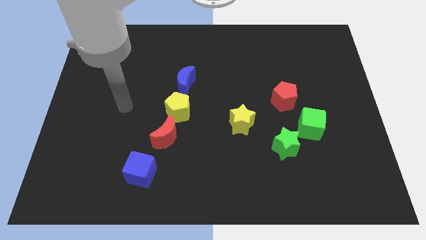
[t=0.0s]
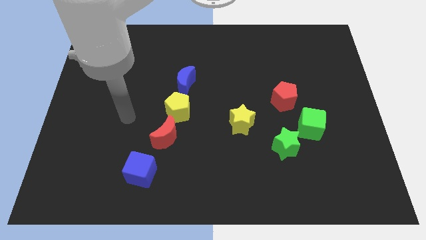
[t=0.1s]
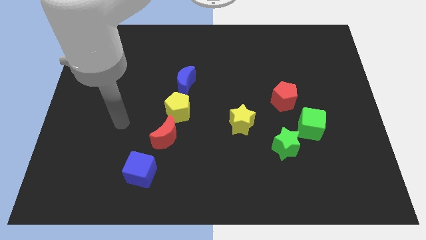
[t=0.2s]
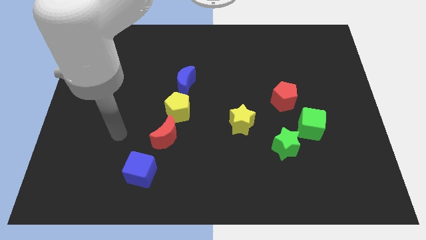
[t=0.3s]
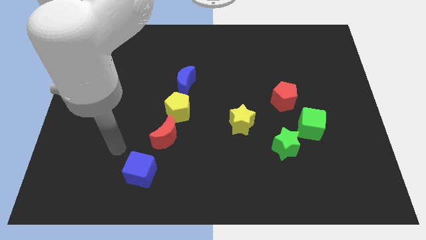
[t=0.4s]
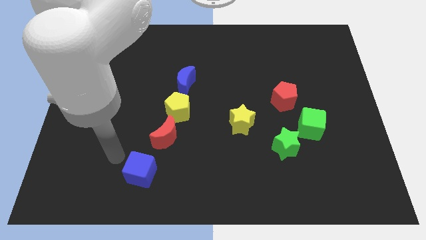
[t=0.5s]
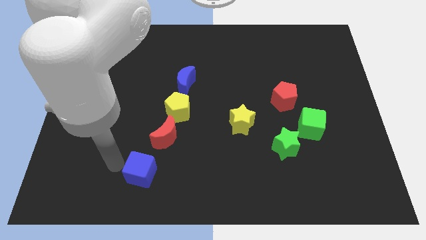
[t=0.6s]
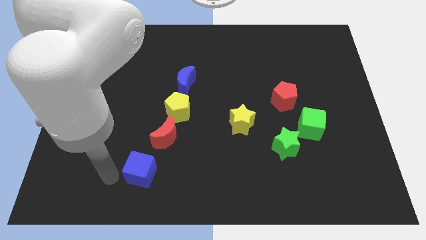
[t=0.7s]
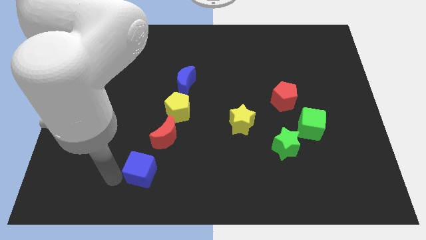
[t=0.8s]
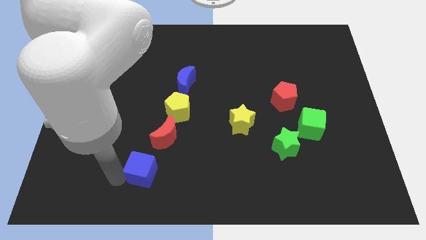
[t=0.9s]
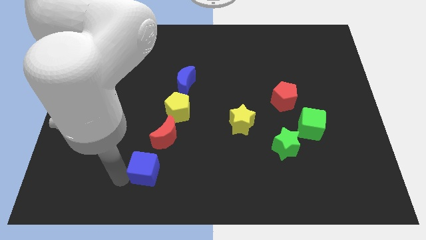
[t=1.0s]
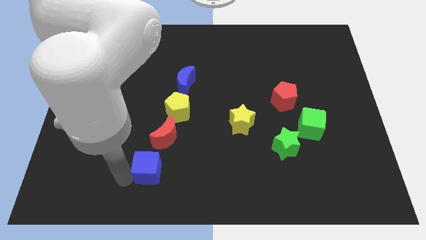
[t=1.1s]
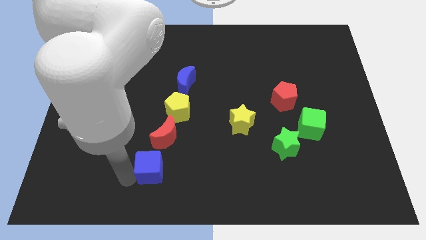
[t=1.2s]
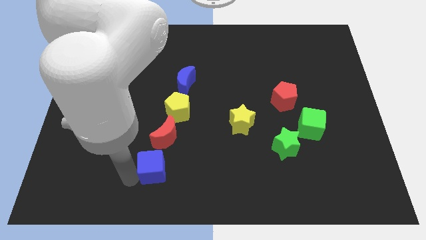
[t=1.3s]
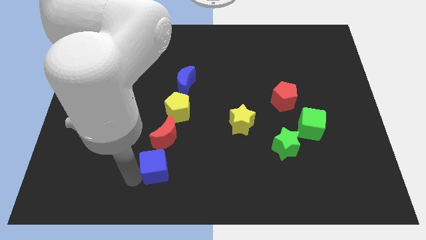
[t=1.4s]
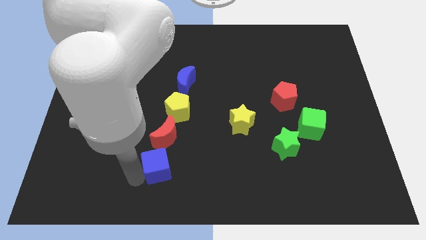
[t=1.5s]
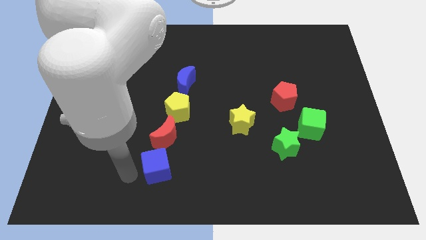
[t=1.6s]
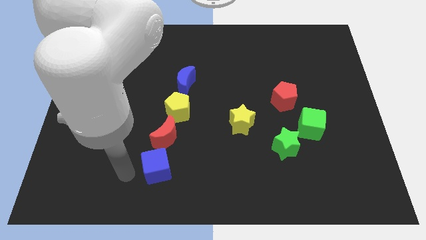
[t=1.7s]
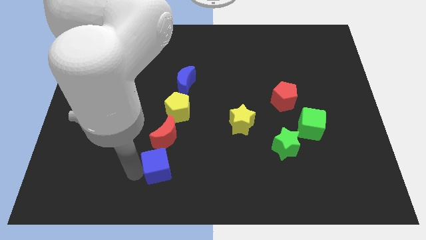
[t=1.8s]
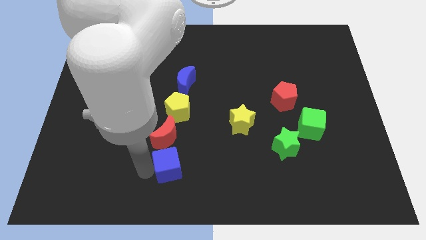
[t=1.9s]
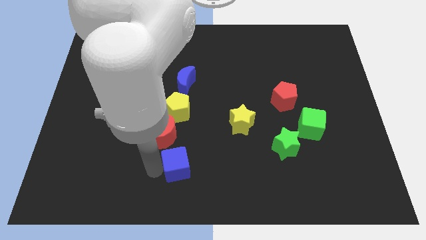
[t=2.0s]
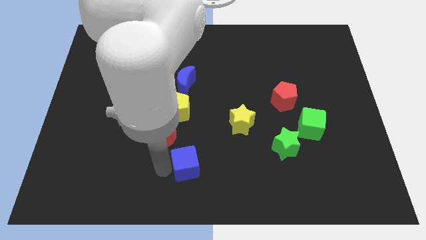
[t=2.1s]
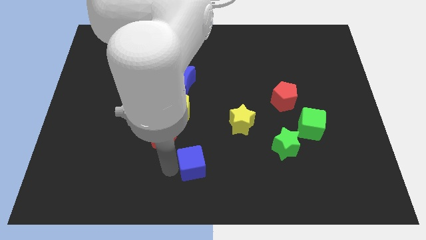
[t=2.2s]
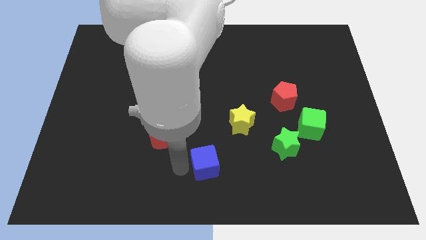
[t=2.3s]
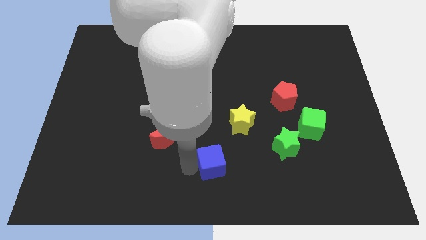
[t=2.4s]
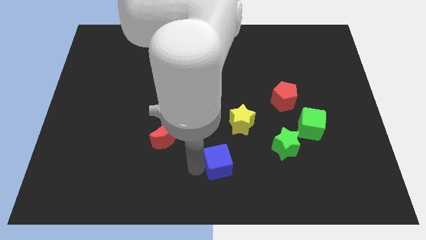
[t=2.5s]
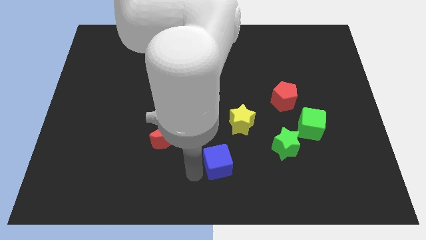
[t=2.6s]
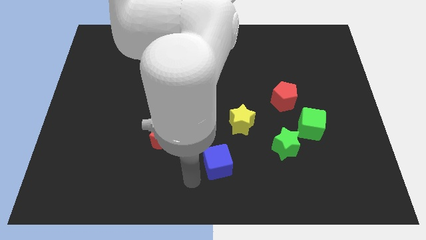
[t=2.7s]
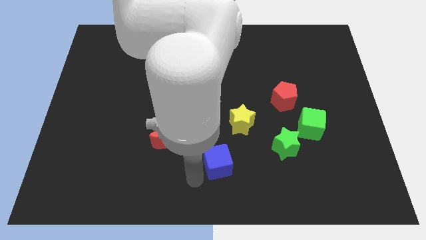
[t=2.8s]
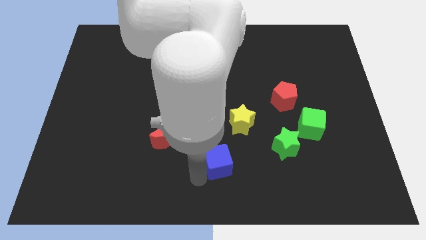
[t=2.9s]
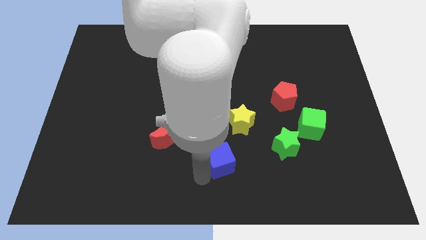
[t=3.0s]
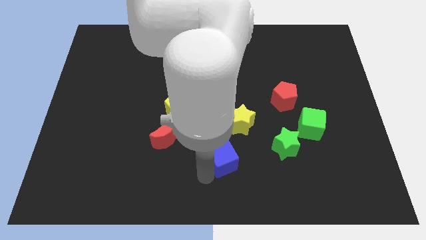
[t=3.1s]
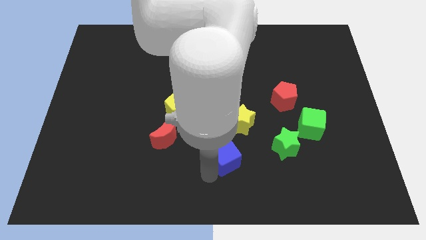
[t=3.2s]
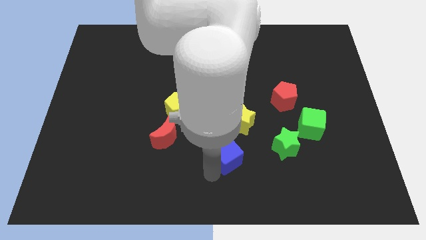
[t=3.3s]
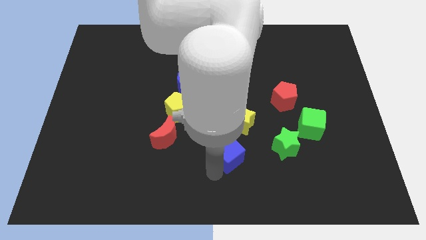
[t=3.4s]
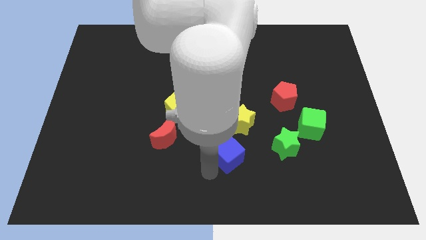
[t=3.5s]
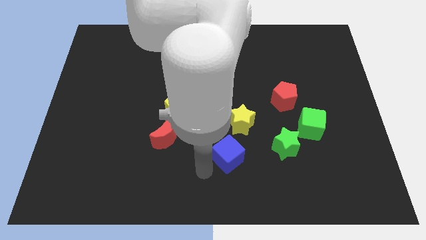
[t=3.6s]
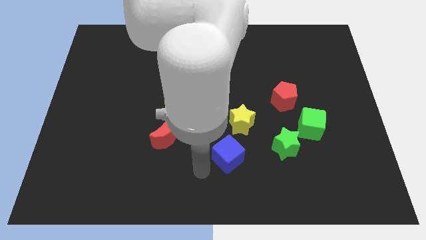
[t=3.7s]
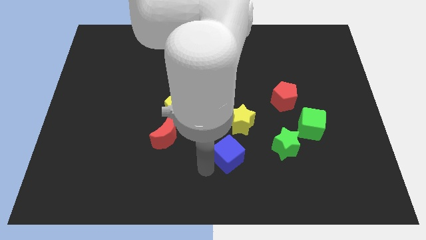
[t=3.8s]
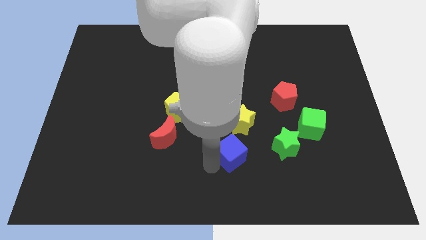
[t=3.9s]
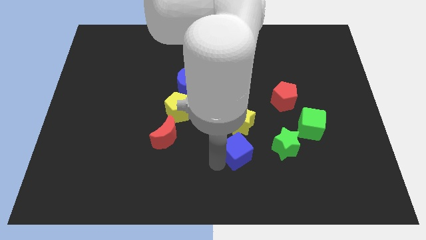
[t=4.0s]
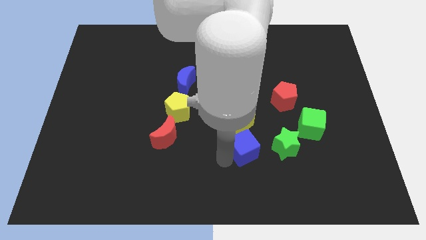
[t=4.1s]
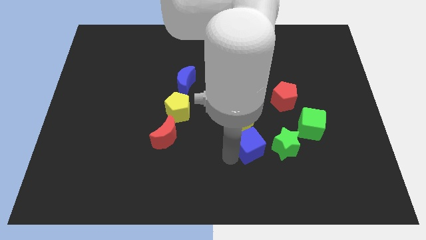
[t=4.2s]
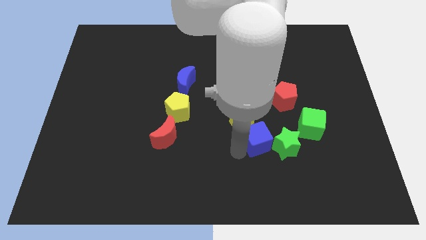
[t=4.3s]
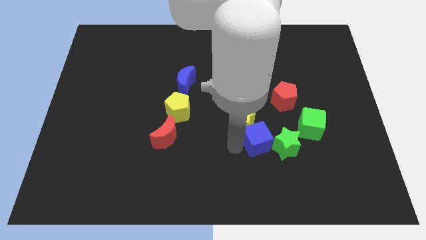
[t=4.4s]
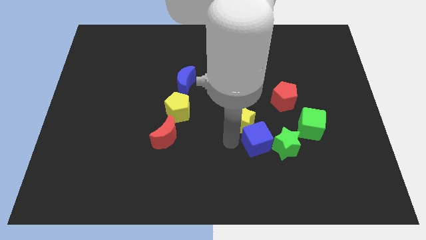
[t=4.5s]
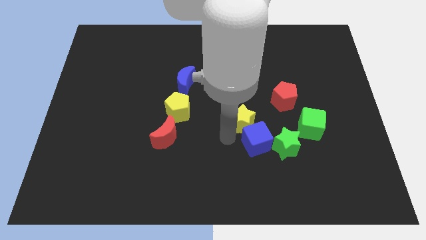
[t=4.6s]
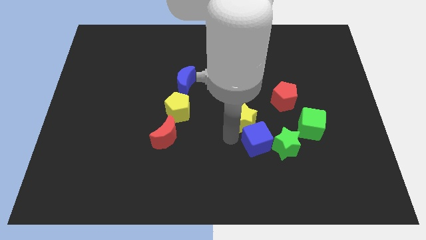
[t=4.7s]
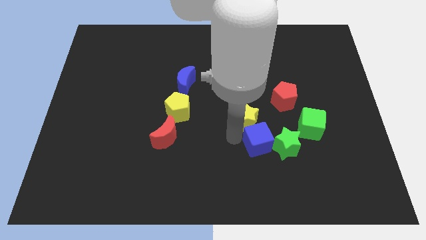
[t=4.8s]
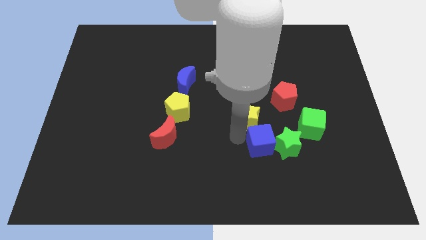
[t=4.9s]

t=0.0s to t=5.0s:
push the blue cube next to the green star

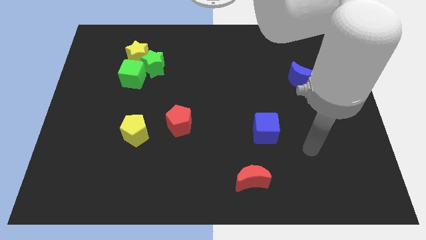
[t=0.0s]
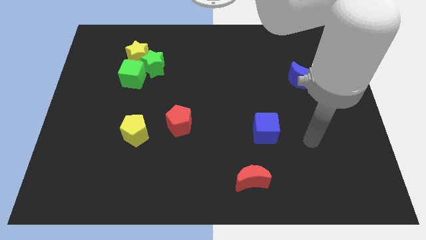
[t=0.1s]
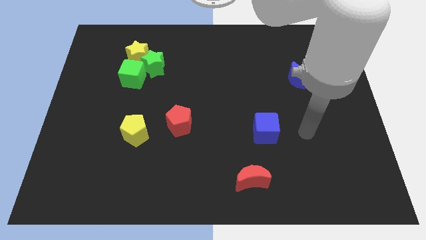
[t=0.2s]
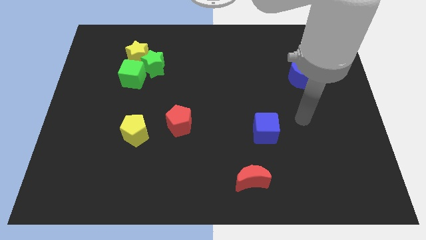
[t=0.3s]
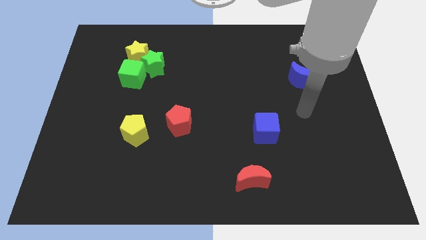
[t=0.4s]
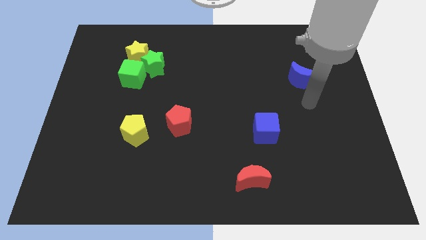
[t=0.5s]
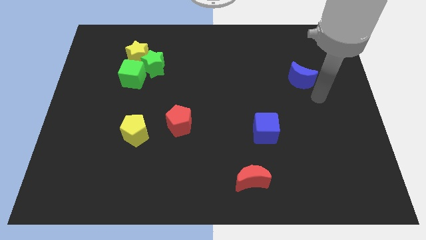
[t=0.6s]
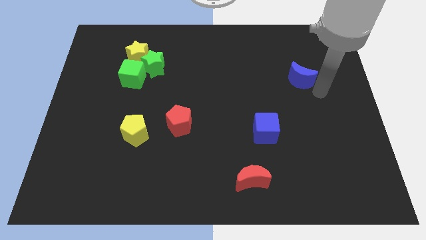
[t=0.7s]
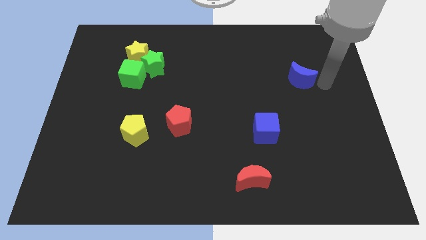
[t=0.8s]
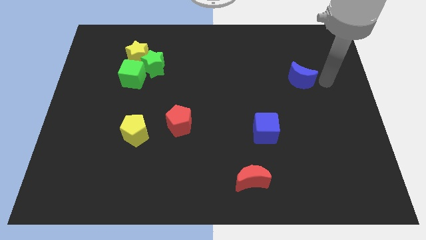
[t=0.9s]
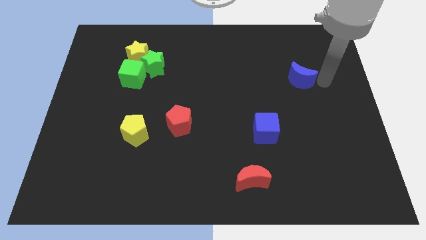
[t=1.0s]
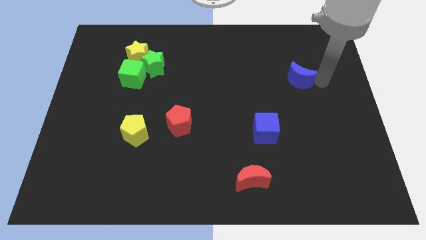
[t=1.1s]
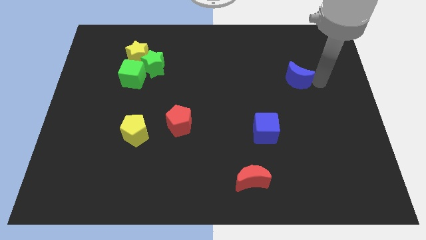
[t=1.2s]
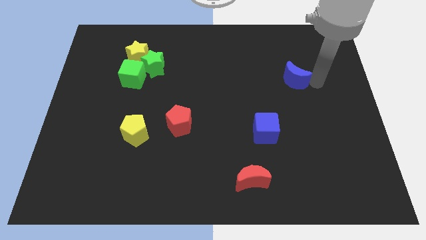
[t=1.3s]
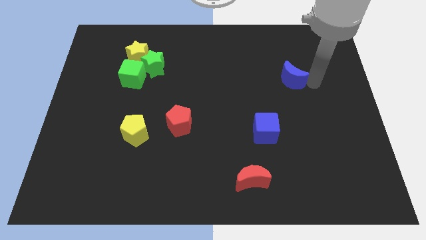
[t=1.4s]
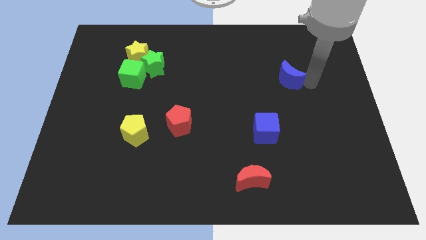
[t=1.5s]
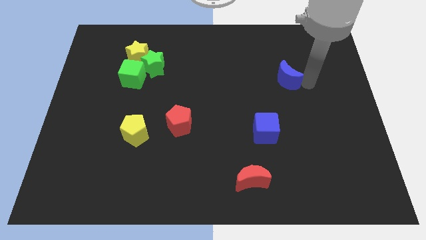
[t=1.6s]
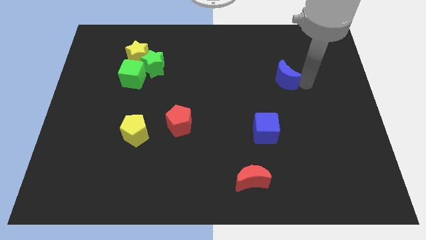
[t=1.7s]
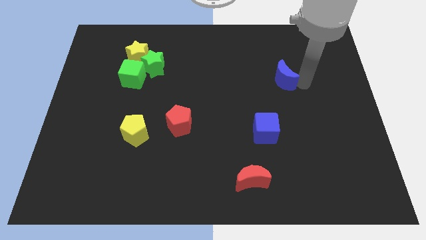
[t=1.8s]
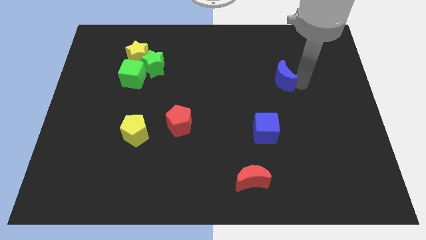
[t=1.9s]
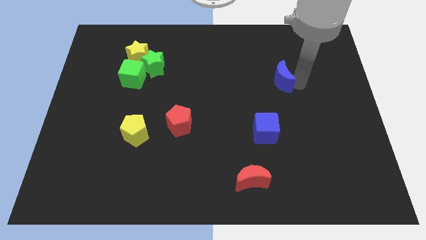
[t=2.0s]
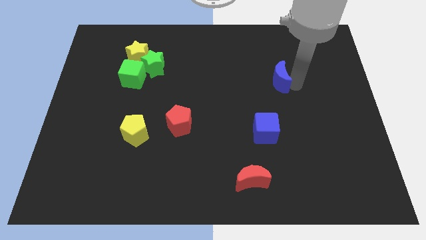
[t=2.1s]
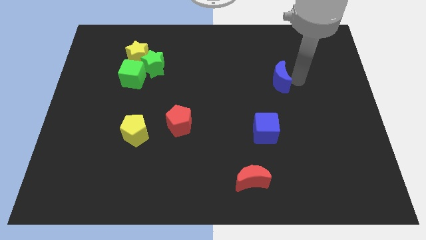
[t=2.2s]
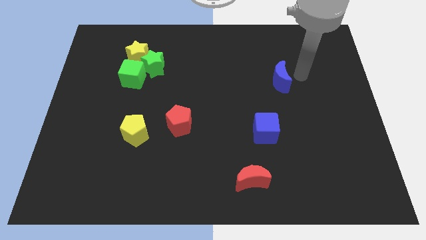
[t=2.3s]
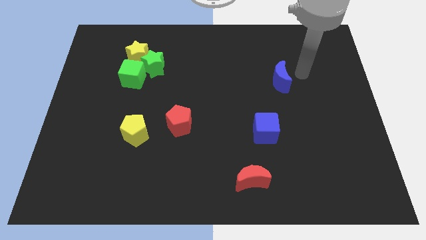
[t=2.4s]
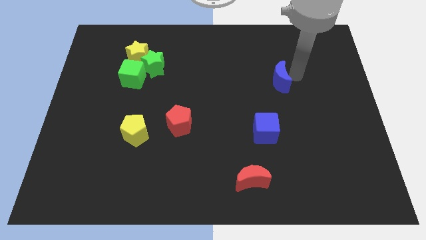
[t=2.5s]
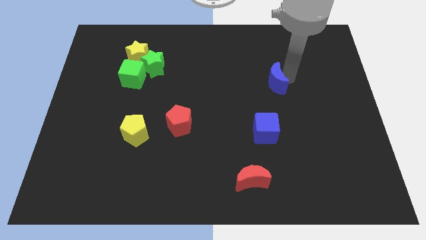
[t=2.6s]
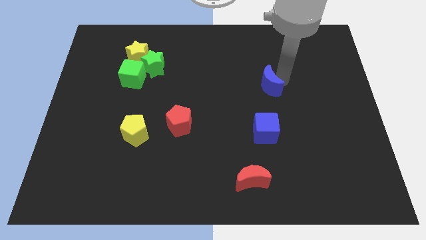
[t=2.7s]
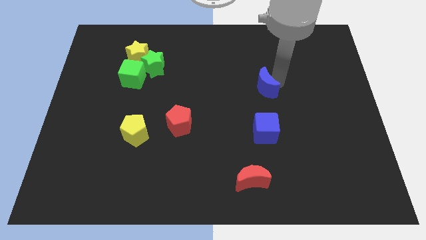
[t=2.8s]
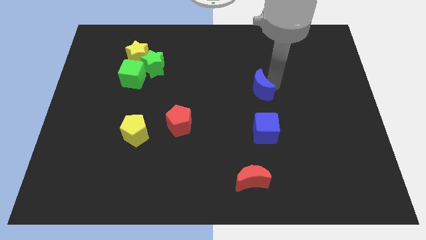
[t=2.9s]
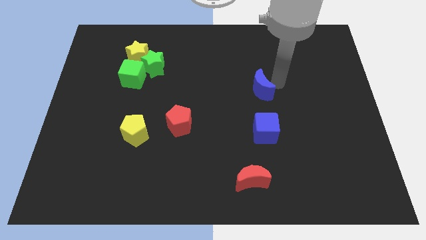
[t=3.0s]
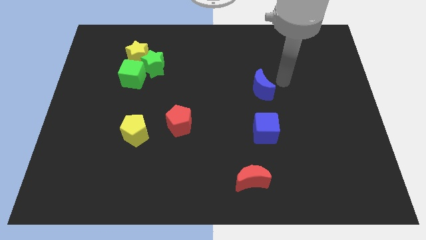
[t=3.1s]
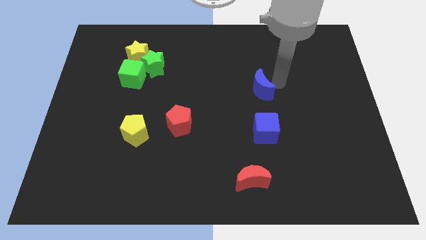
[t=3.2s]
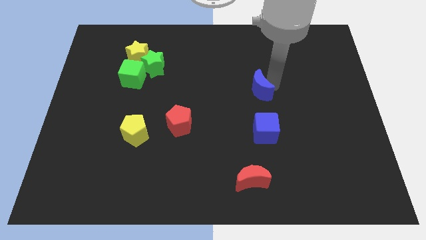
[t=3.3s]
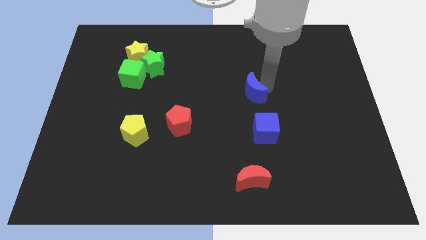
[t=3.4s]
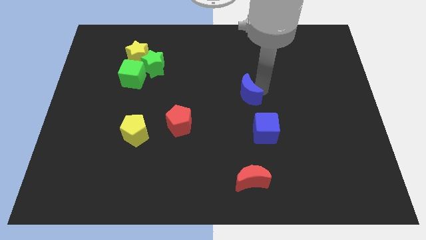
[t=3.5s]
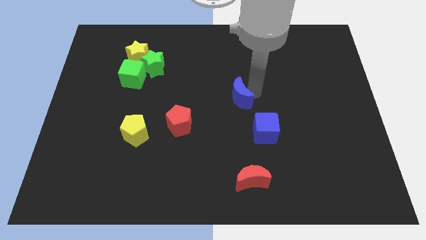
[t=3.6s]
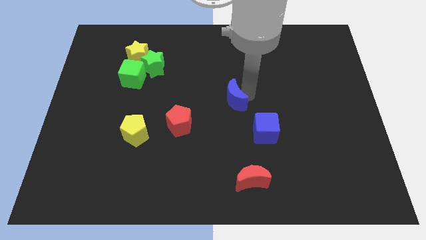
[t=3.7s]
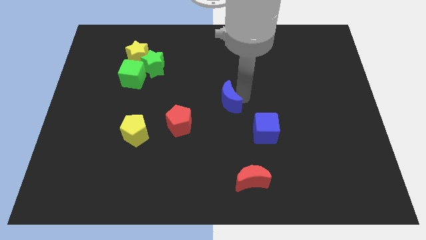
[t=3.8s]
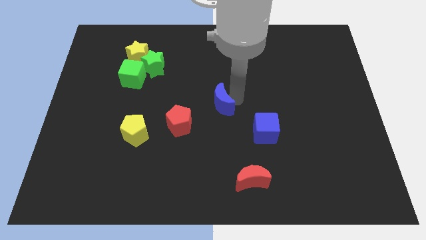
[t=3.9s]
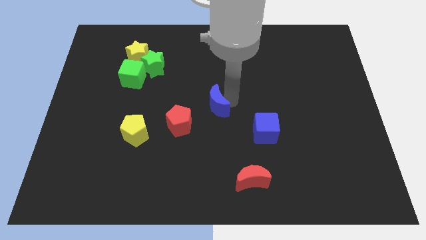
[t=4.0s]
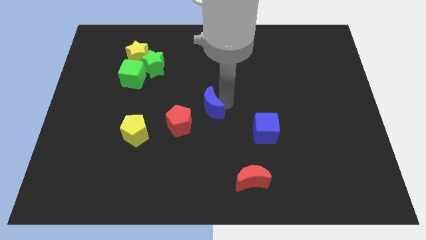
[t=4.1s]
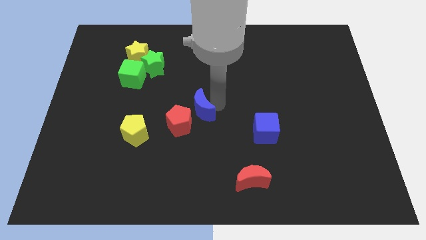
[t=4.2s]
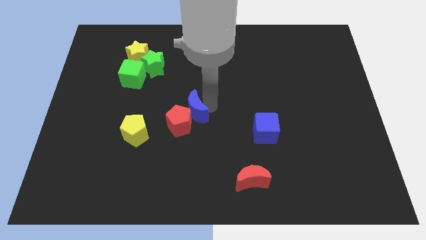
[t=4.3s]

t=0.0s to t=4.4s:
move the blue moon towards the red pentagon
